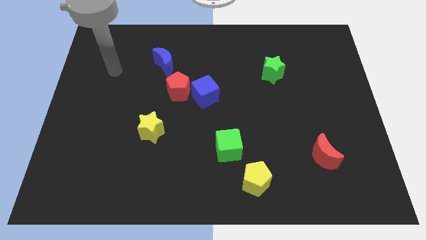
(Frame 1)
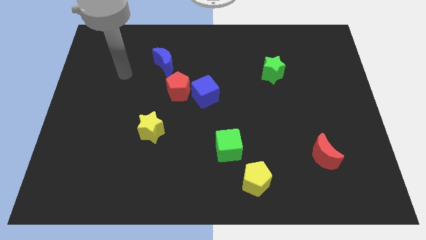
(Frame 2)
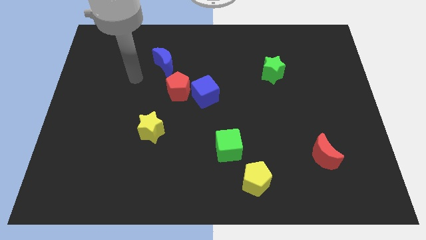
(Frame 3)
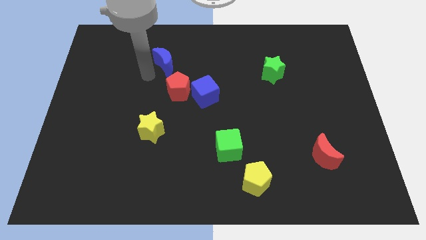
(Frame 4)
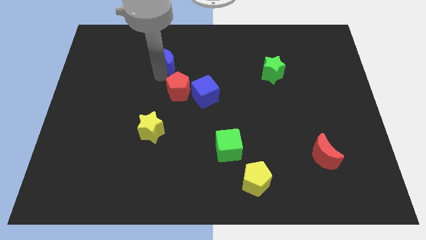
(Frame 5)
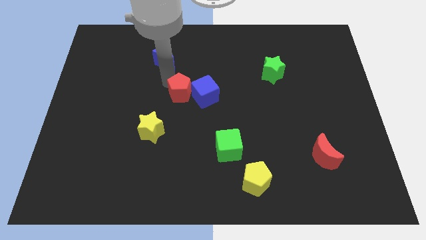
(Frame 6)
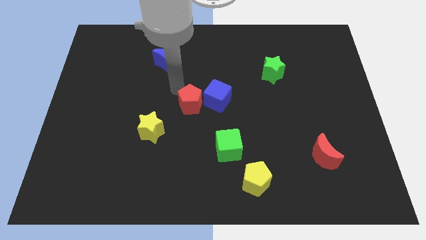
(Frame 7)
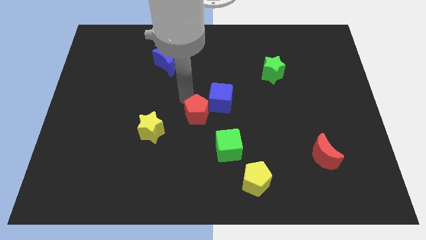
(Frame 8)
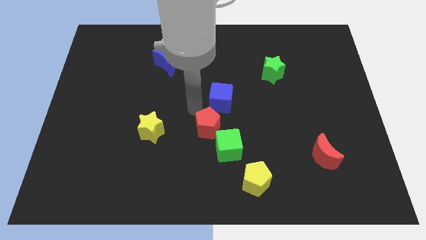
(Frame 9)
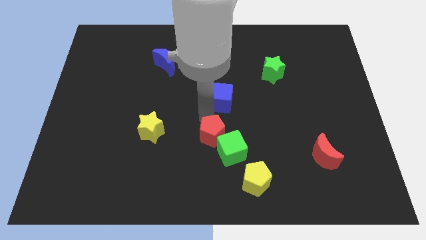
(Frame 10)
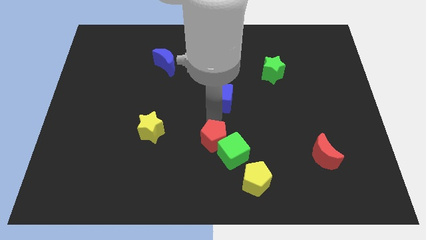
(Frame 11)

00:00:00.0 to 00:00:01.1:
move the blue cube away from the red pentagon

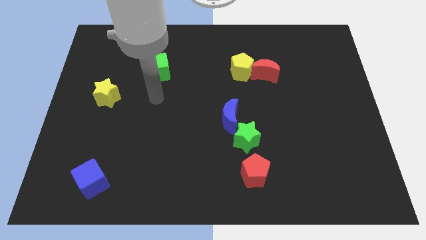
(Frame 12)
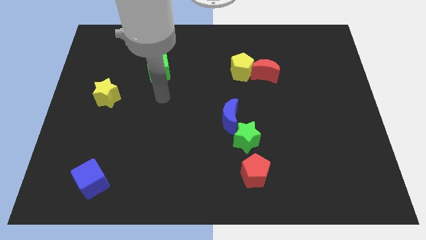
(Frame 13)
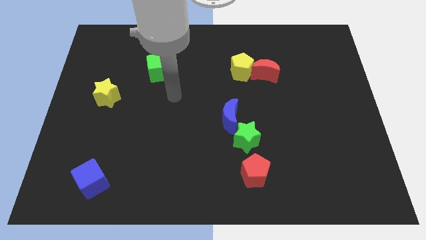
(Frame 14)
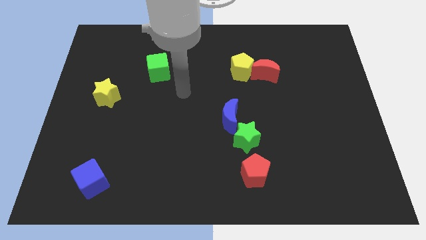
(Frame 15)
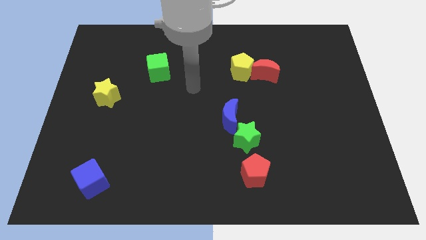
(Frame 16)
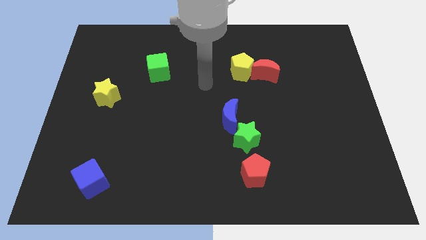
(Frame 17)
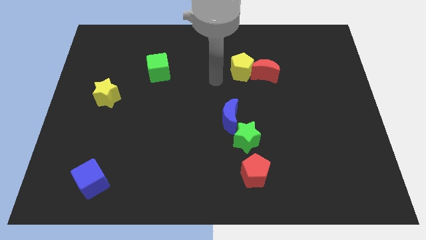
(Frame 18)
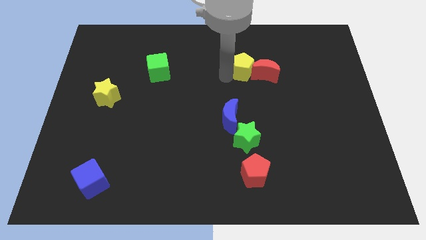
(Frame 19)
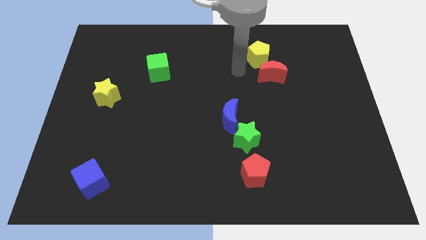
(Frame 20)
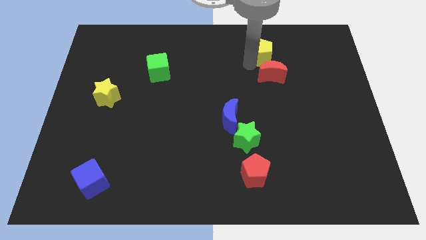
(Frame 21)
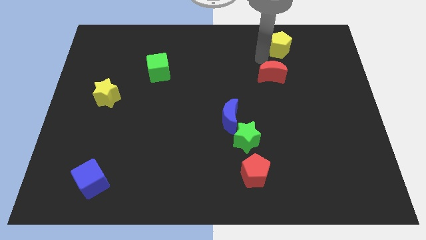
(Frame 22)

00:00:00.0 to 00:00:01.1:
separate the red moon from the yellow pentagon

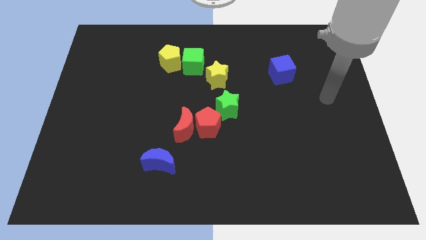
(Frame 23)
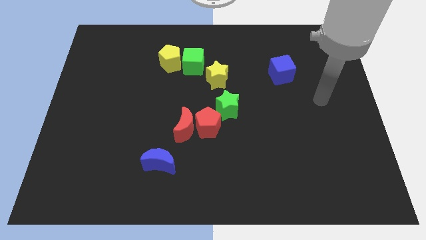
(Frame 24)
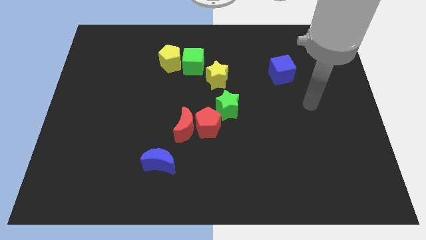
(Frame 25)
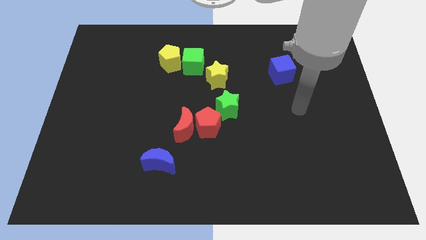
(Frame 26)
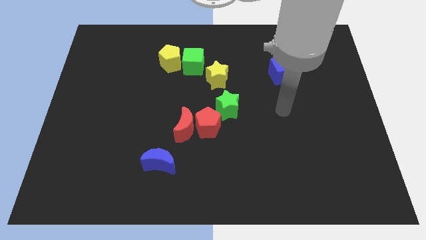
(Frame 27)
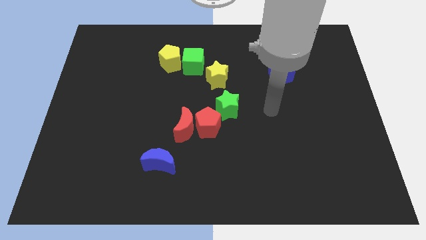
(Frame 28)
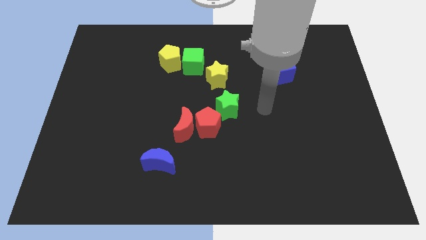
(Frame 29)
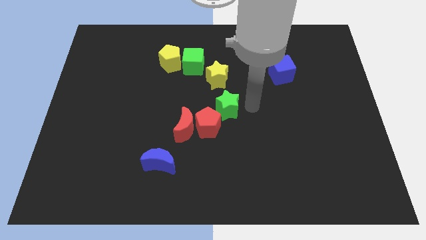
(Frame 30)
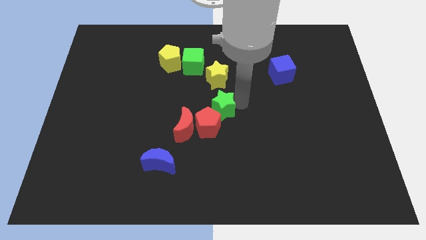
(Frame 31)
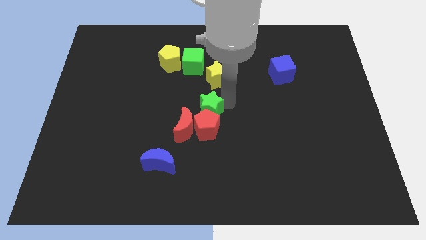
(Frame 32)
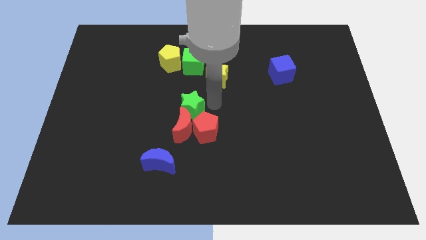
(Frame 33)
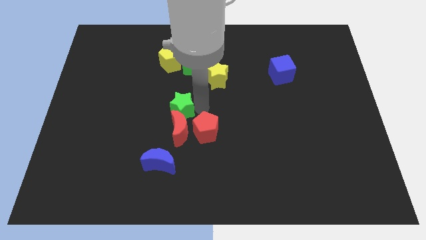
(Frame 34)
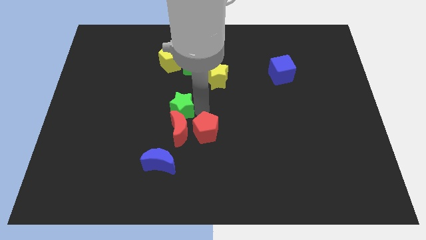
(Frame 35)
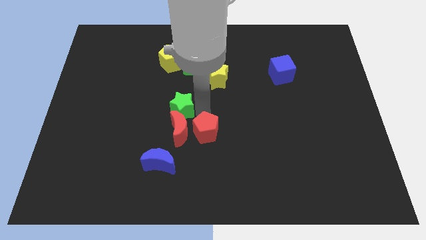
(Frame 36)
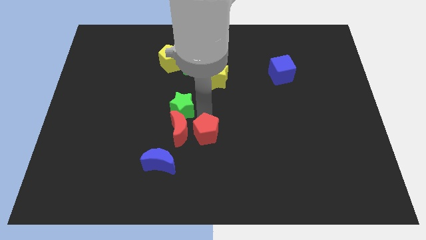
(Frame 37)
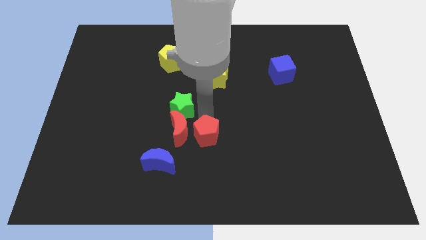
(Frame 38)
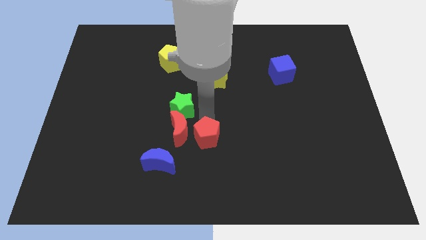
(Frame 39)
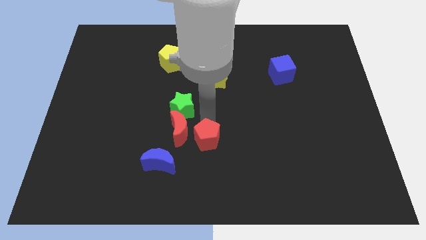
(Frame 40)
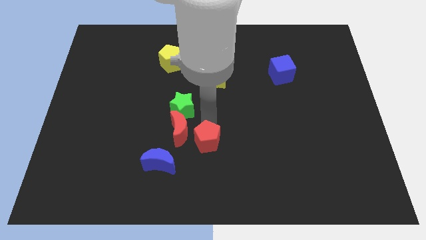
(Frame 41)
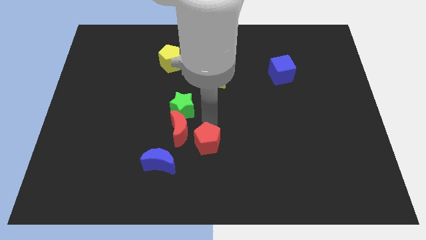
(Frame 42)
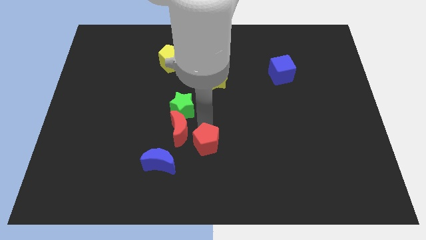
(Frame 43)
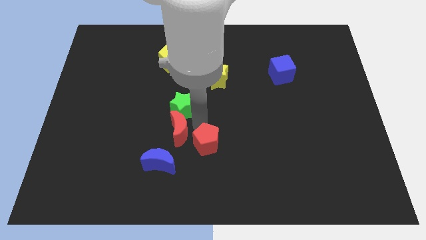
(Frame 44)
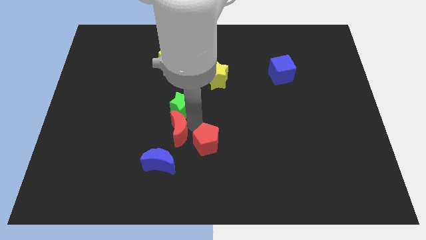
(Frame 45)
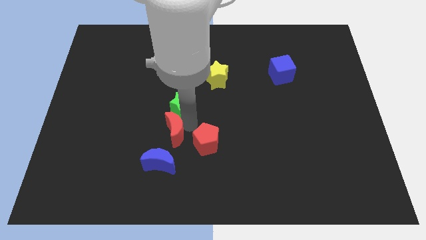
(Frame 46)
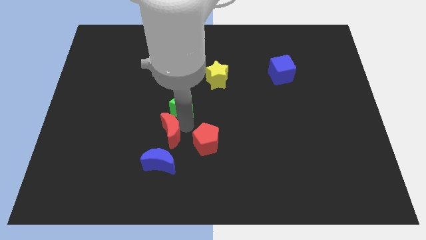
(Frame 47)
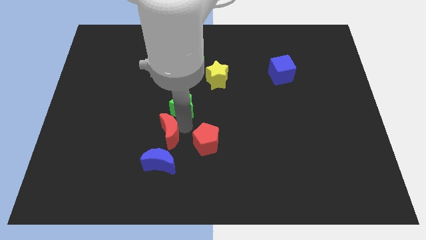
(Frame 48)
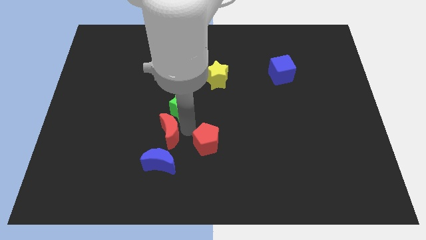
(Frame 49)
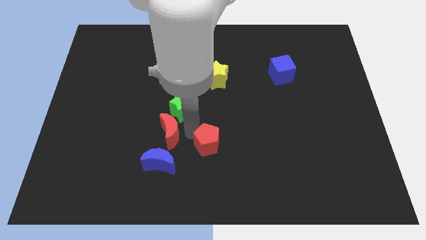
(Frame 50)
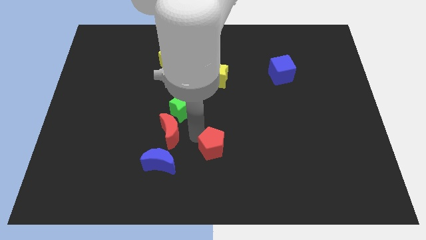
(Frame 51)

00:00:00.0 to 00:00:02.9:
separate the red pentagon from the red moon and green star

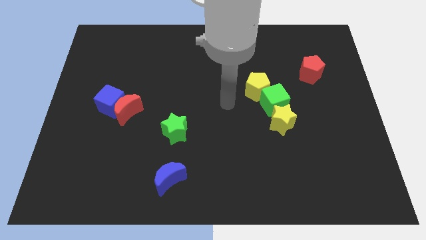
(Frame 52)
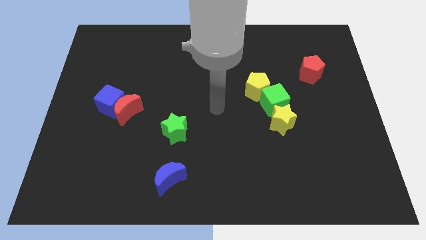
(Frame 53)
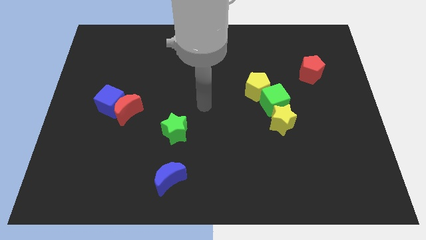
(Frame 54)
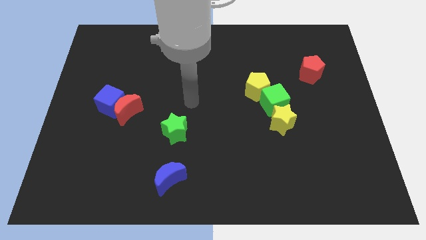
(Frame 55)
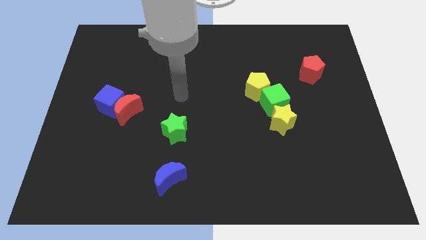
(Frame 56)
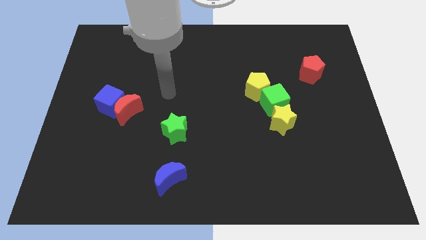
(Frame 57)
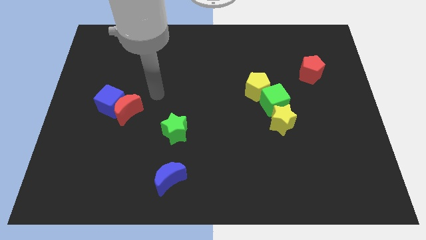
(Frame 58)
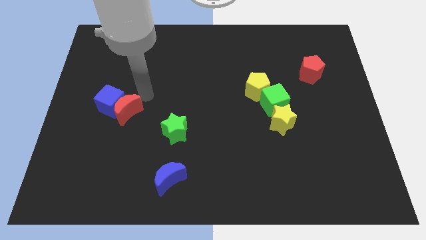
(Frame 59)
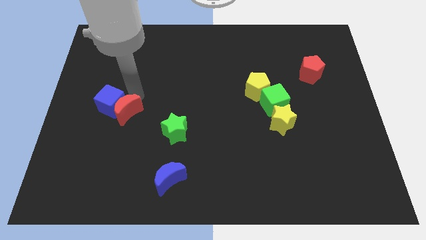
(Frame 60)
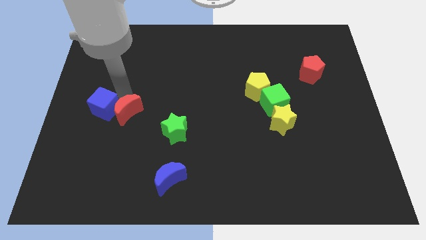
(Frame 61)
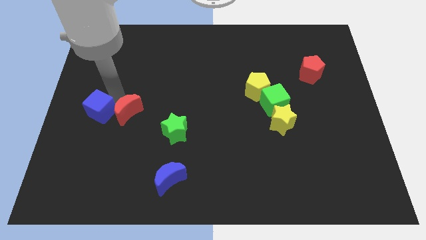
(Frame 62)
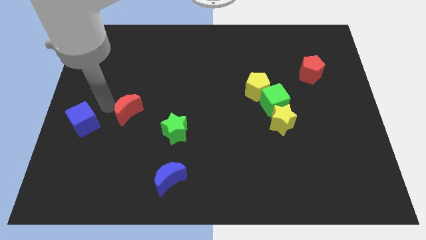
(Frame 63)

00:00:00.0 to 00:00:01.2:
pull the red moon apart from the blue cube

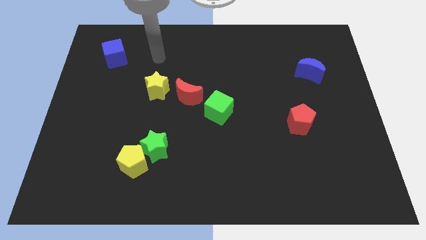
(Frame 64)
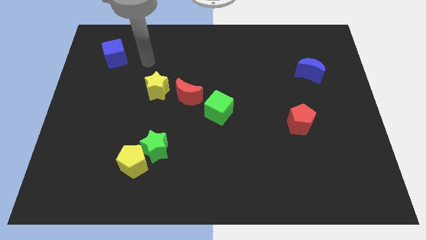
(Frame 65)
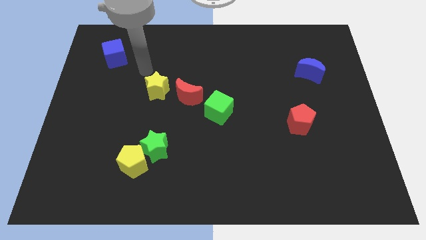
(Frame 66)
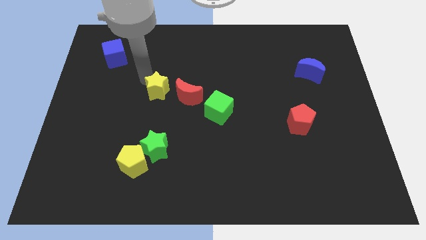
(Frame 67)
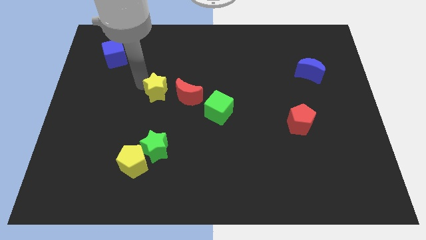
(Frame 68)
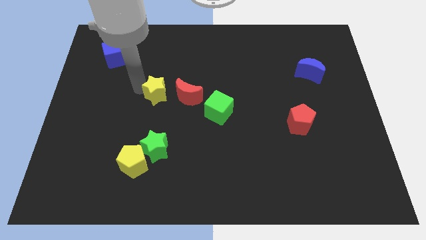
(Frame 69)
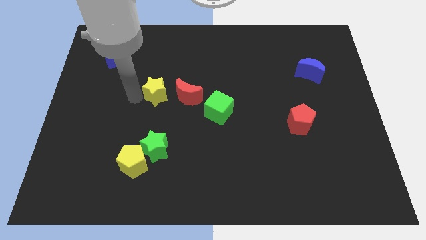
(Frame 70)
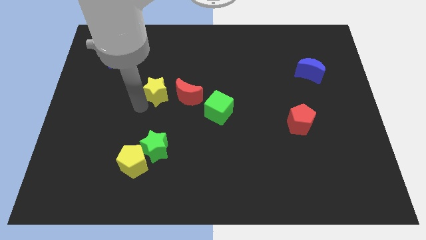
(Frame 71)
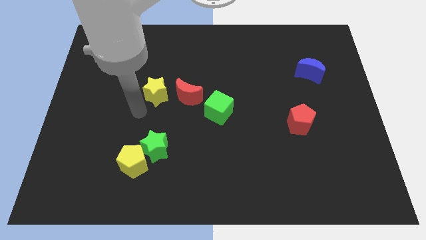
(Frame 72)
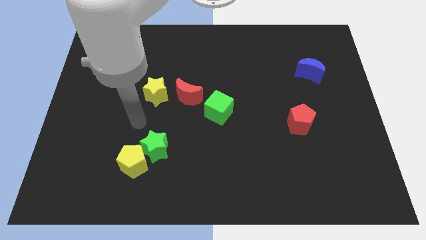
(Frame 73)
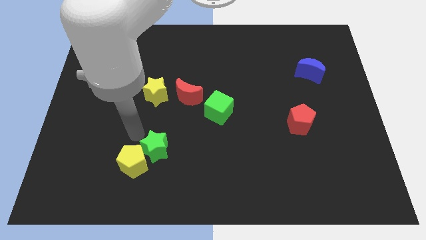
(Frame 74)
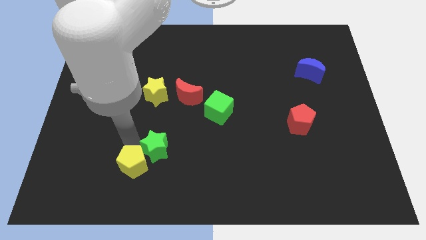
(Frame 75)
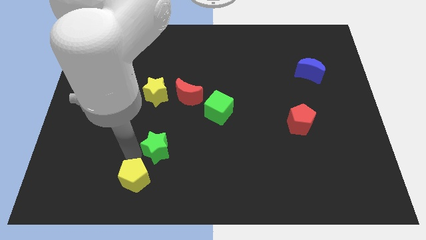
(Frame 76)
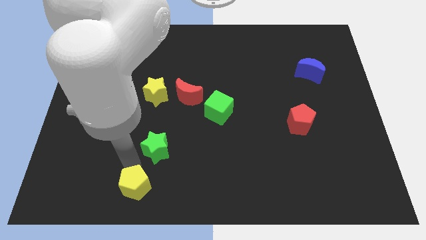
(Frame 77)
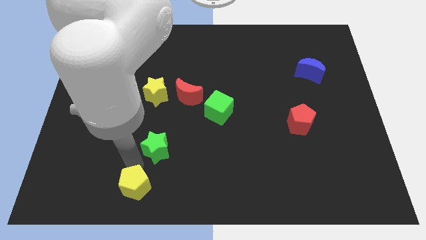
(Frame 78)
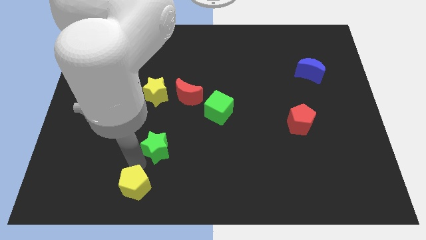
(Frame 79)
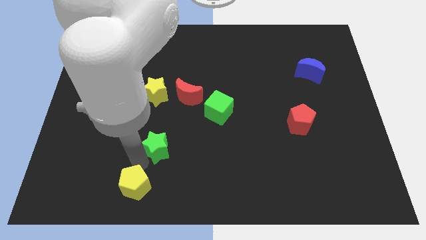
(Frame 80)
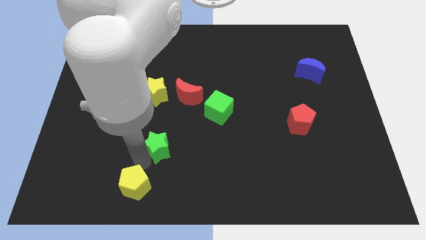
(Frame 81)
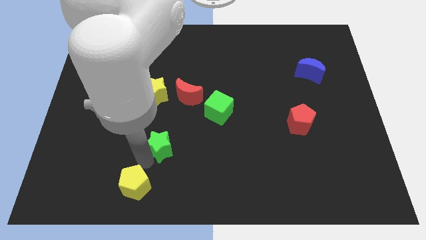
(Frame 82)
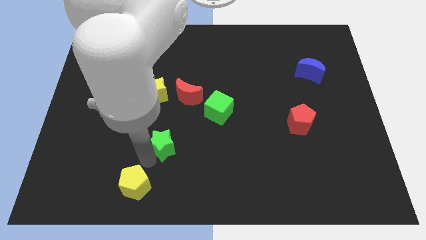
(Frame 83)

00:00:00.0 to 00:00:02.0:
separate the green star from the yellow pentagon

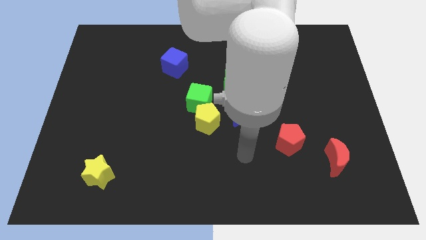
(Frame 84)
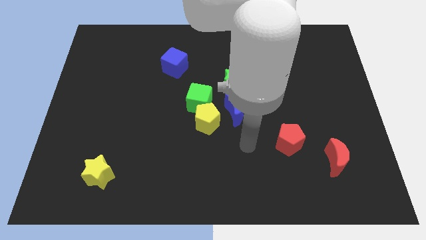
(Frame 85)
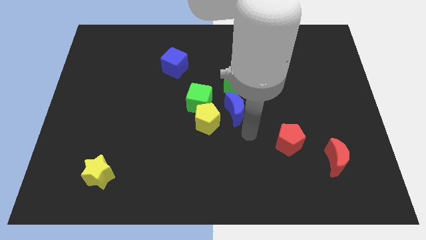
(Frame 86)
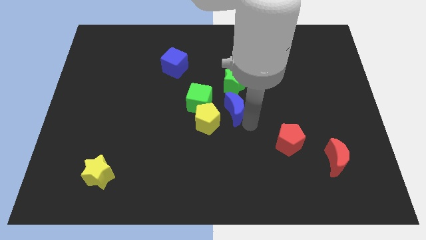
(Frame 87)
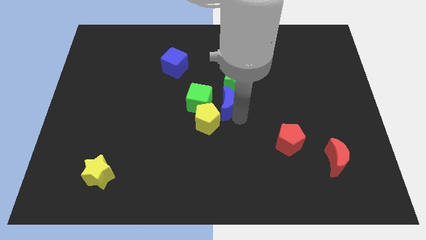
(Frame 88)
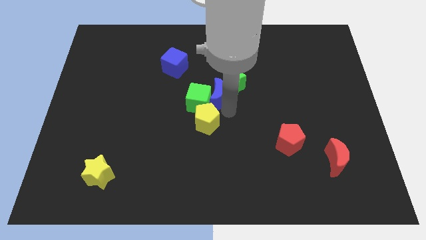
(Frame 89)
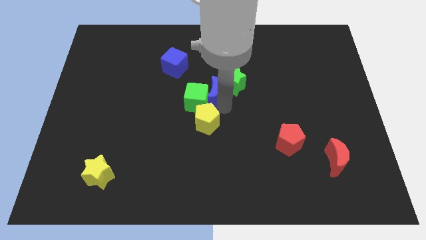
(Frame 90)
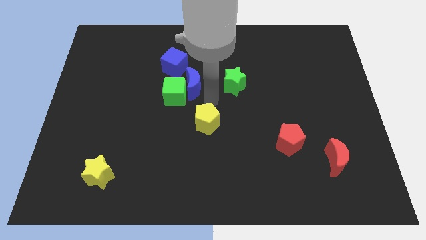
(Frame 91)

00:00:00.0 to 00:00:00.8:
move the yellow pentagon away from the green cube and blue moon
